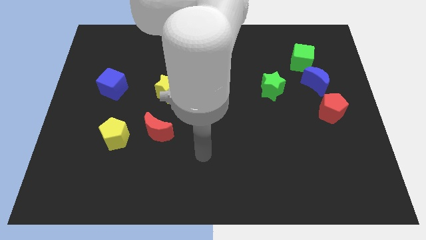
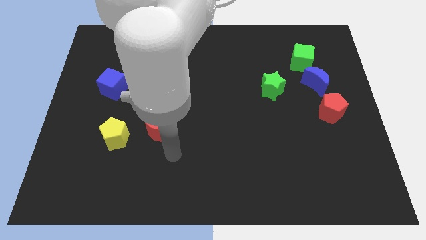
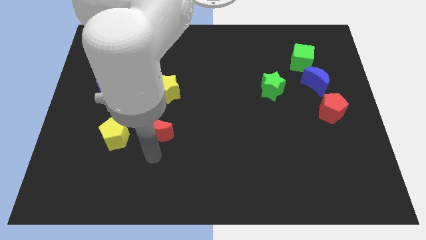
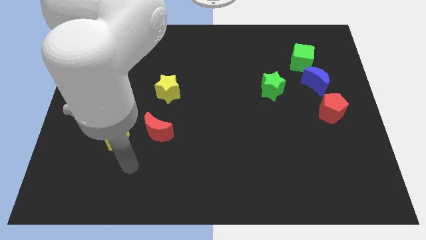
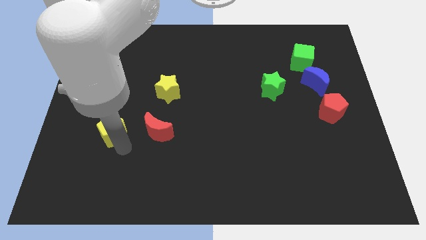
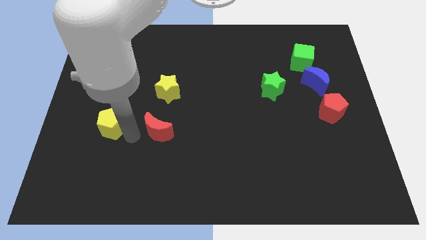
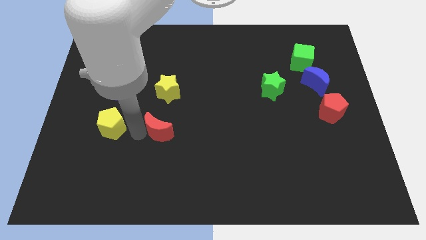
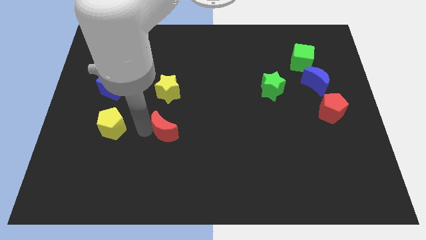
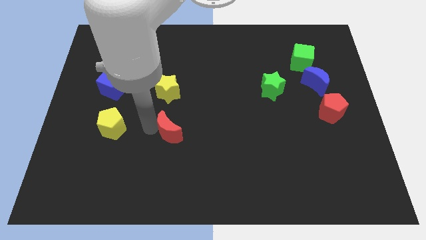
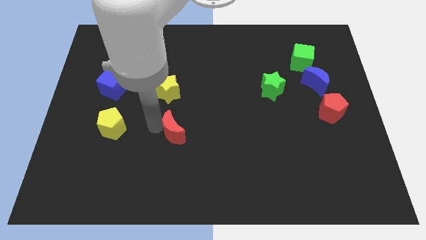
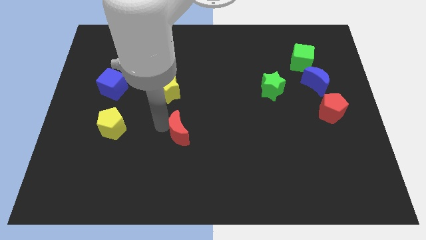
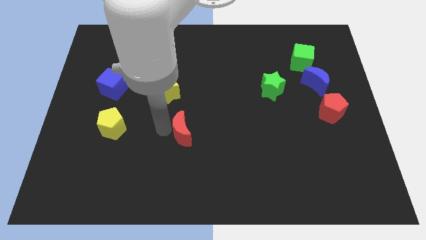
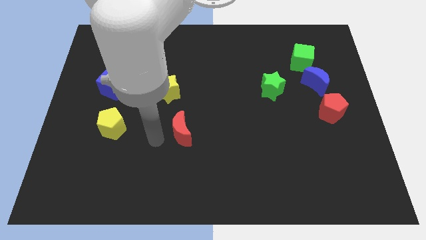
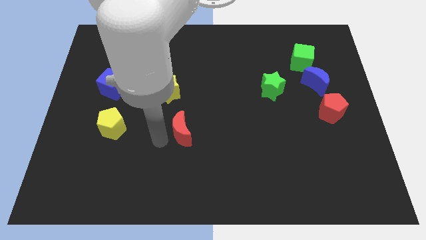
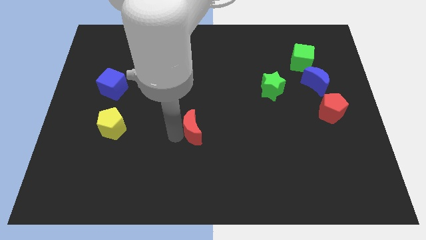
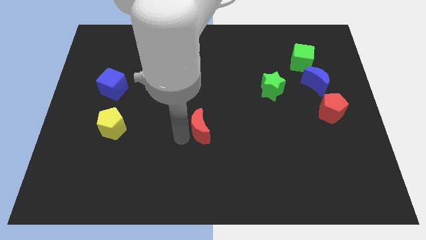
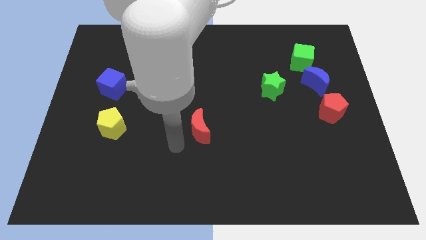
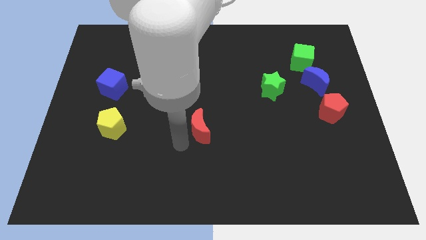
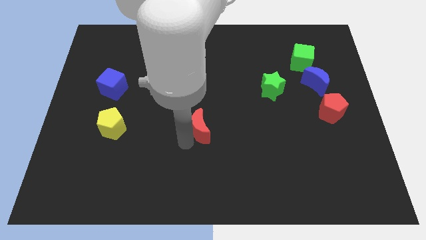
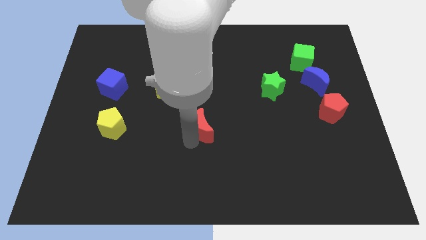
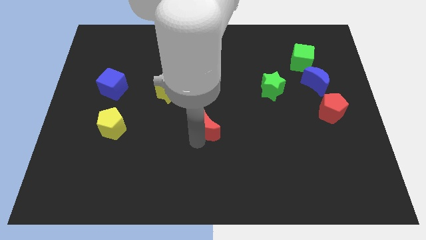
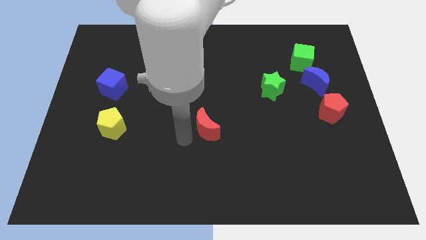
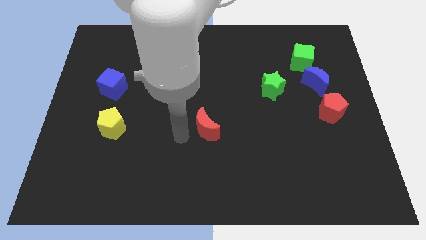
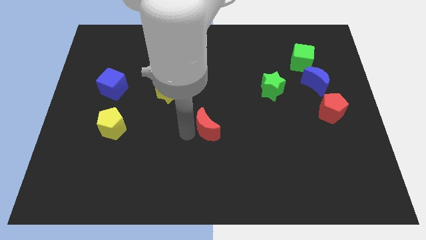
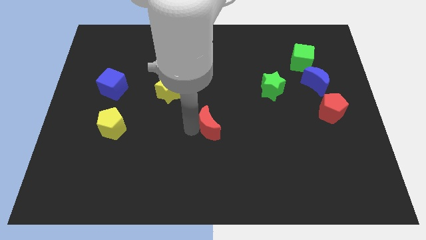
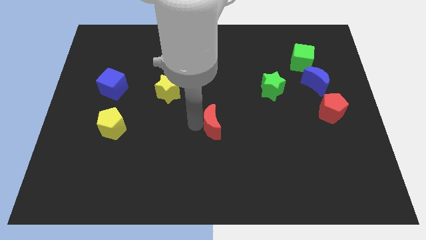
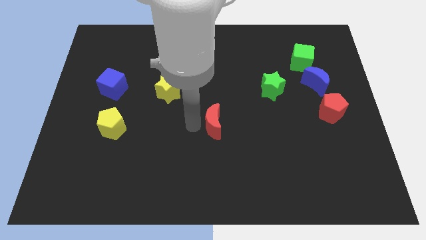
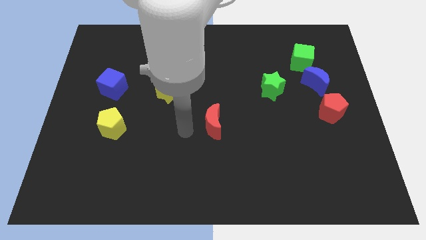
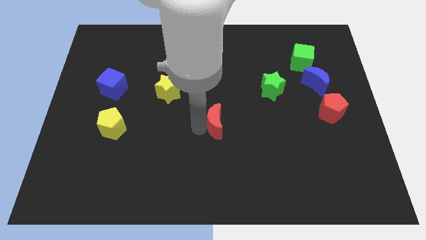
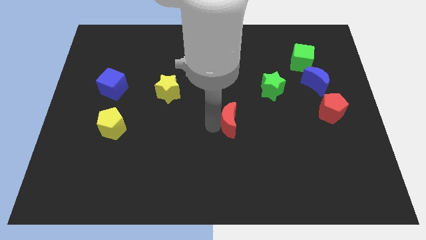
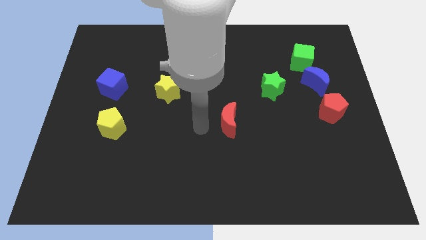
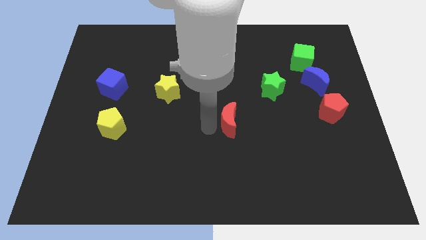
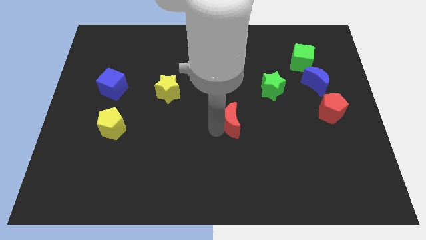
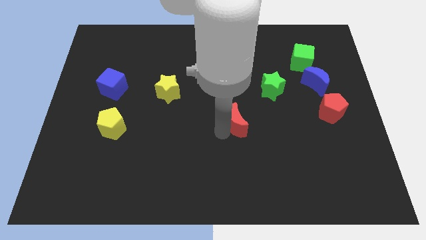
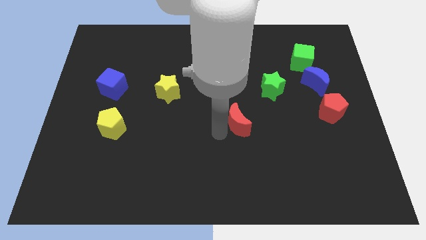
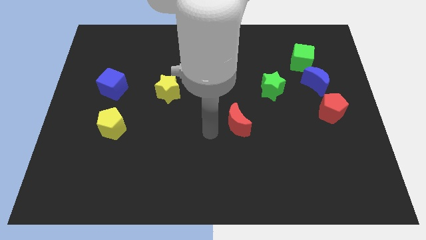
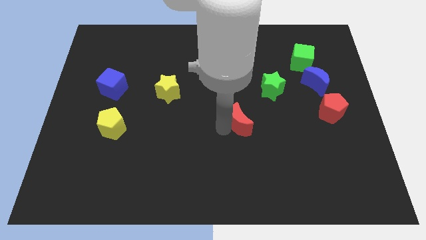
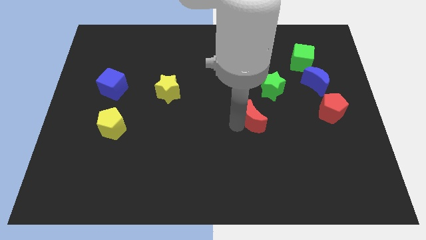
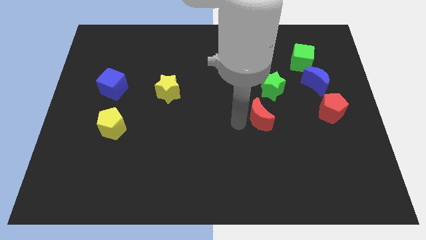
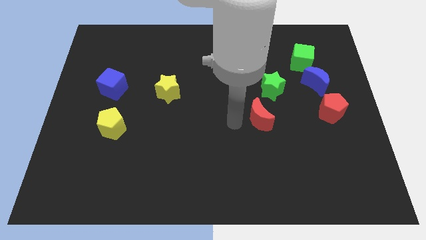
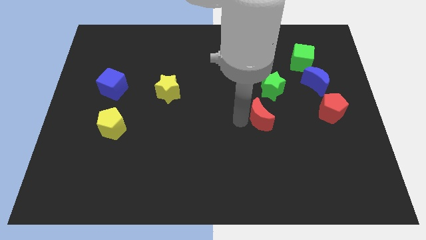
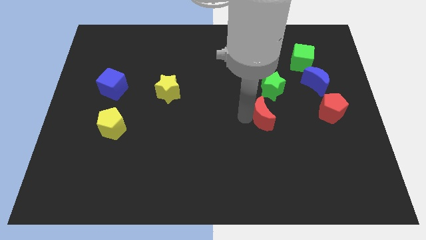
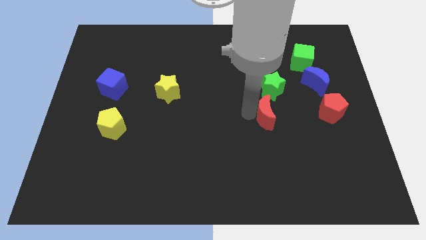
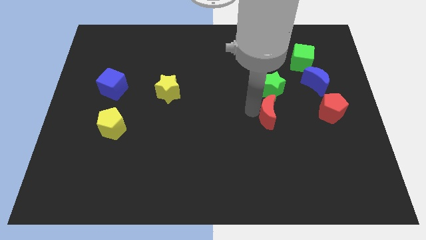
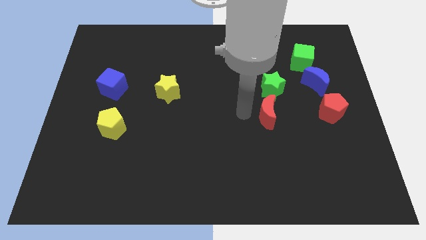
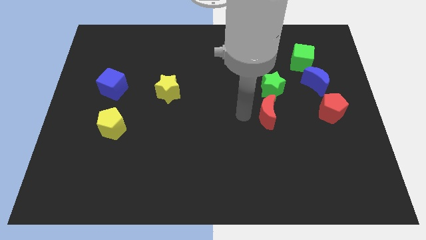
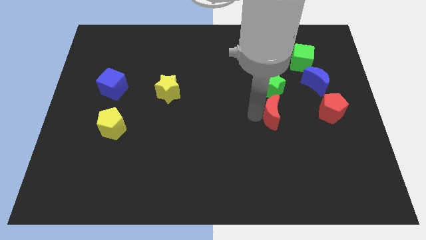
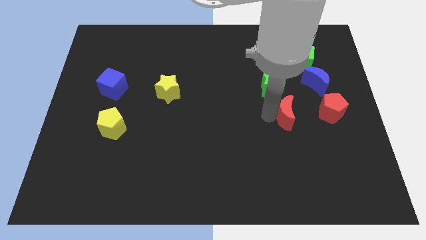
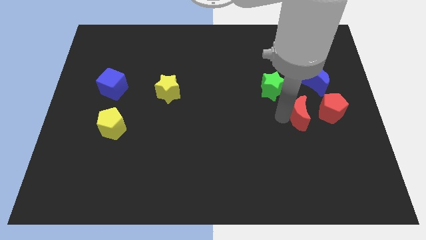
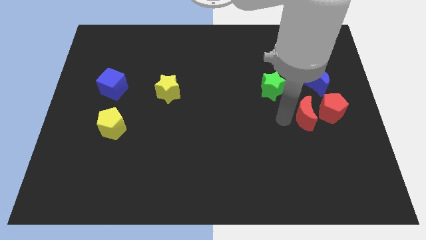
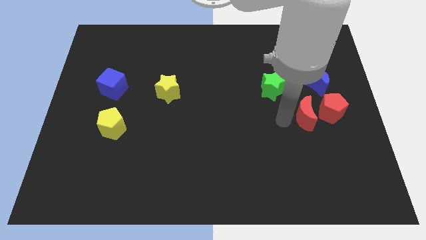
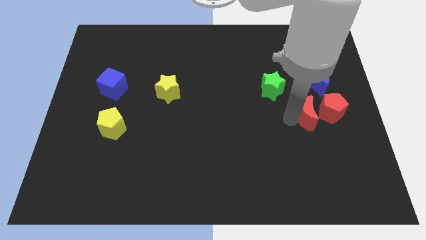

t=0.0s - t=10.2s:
move the red moon next to the red pentagon

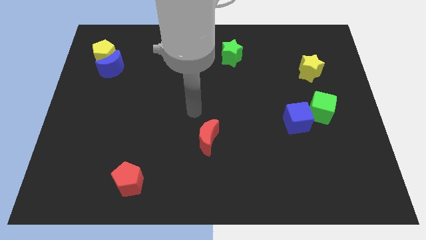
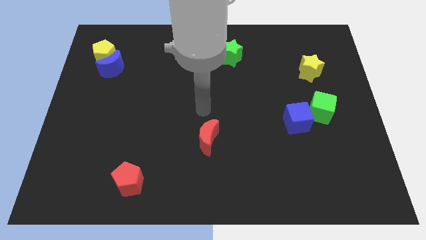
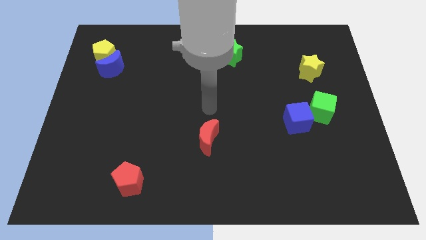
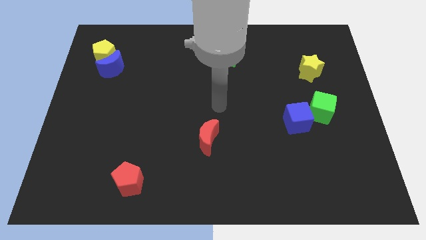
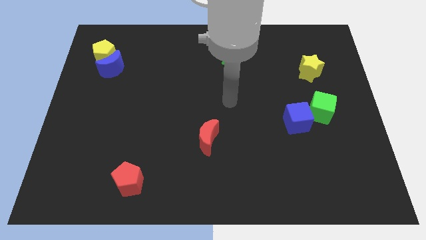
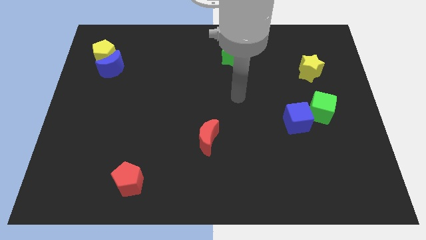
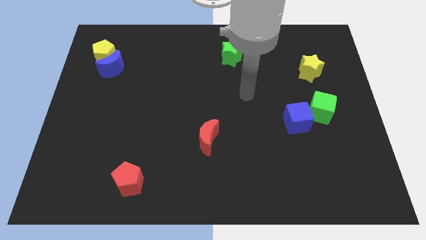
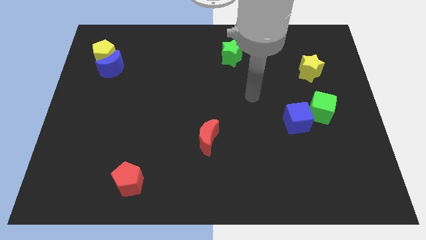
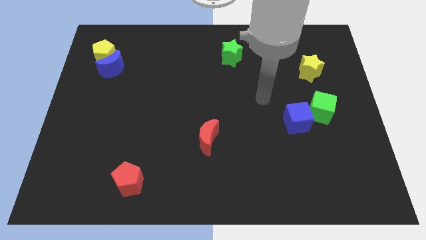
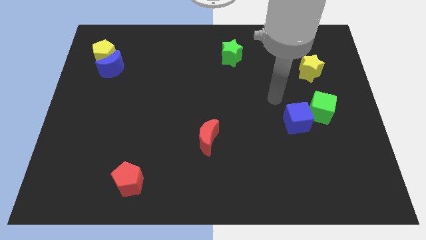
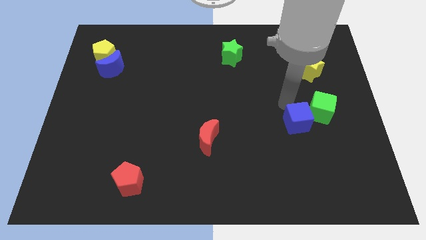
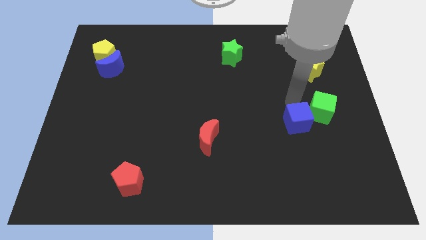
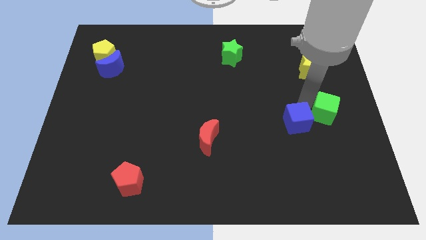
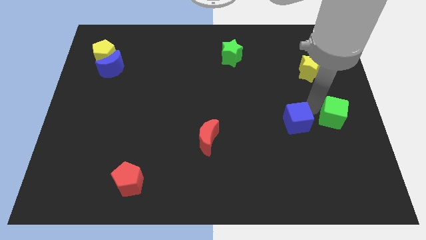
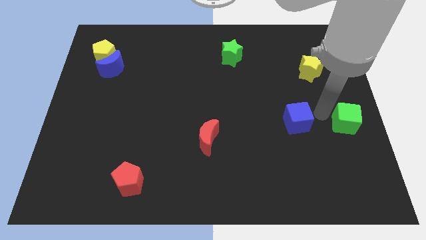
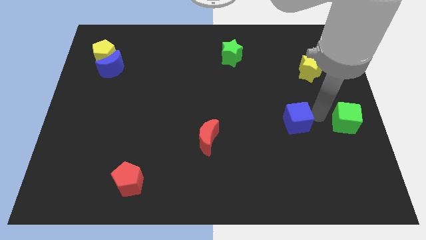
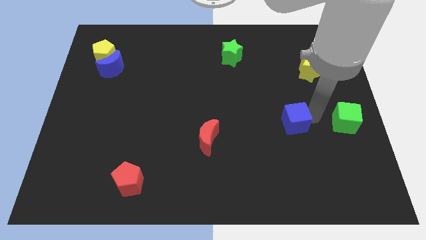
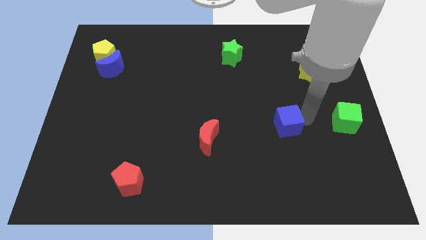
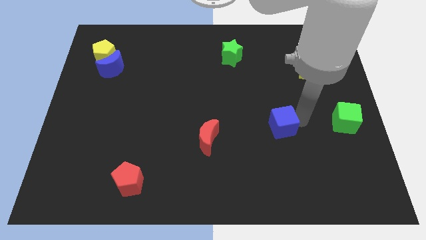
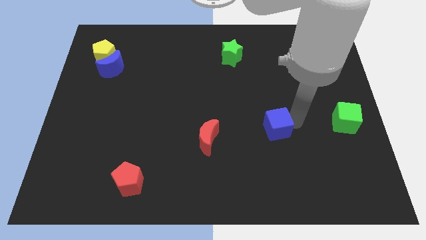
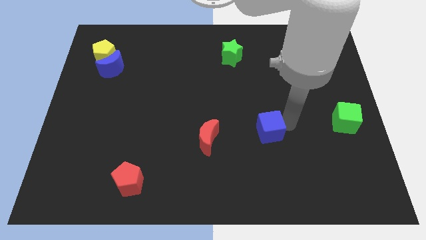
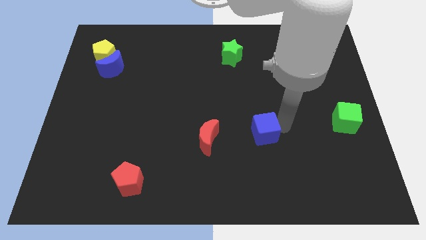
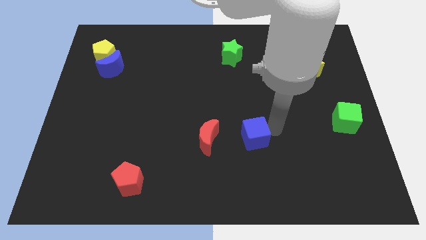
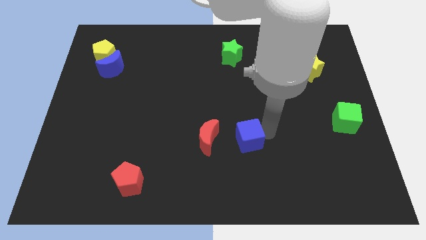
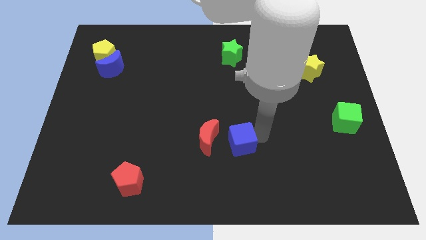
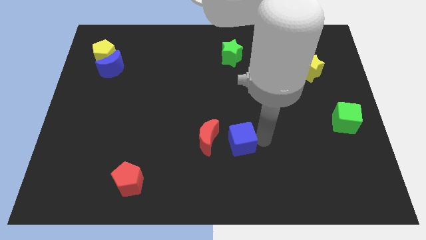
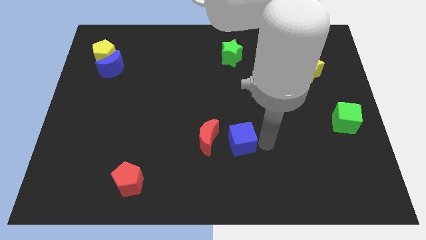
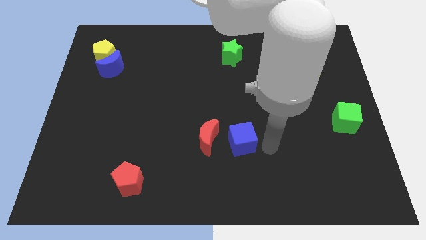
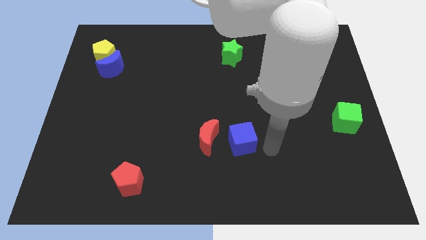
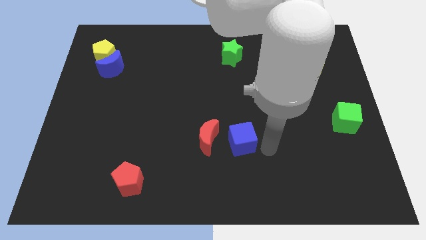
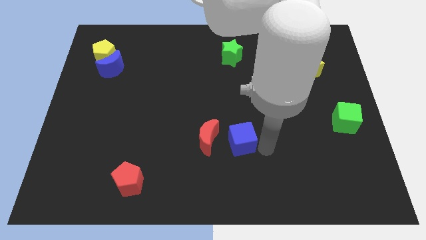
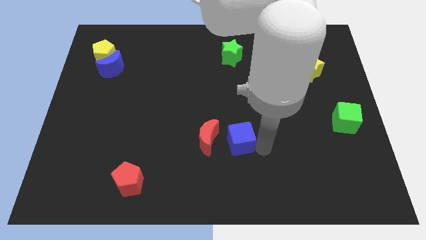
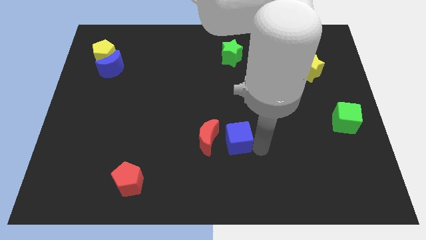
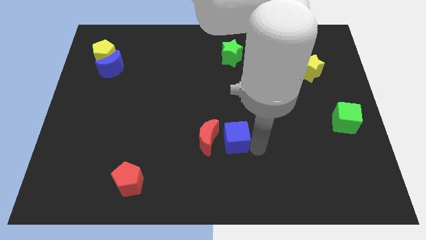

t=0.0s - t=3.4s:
slide the blue cube to the red moon
